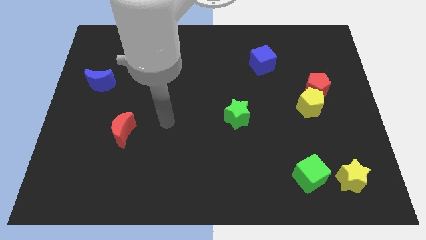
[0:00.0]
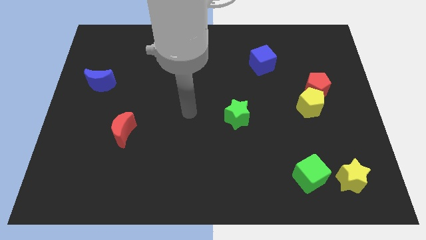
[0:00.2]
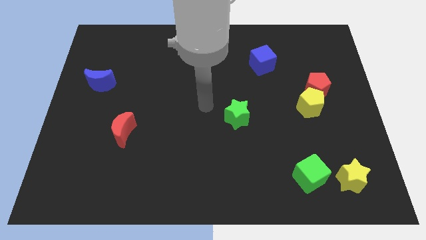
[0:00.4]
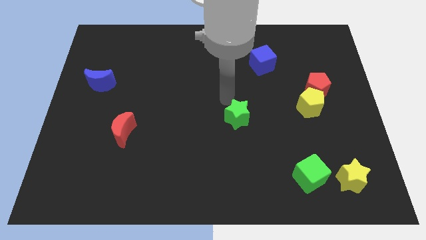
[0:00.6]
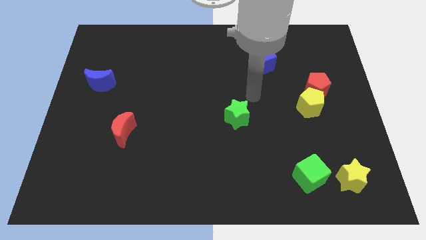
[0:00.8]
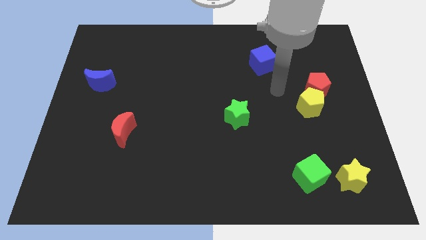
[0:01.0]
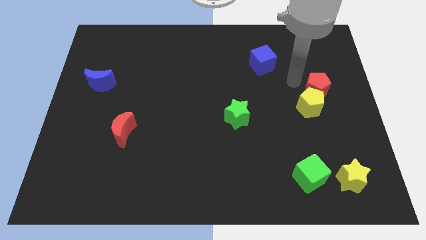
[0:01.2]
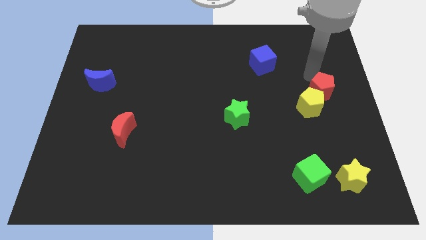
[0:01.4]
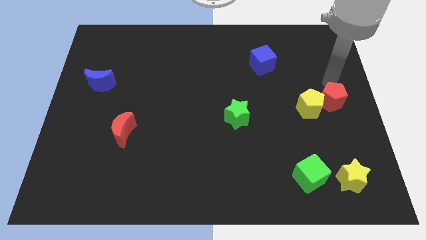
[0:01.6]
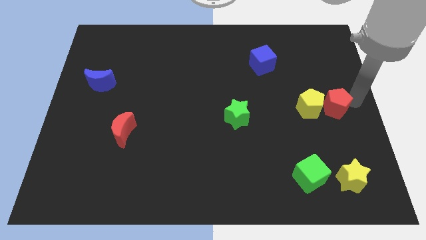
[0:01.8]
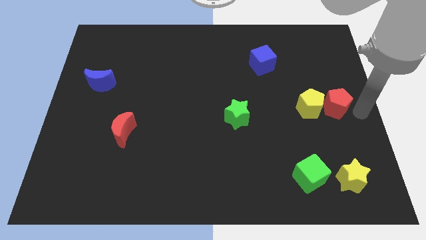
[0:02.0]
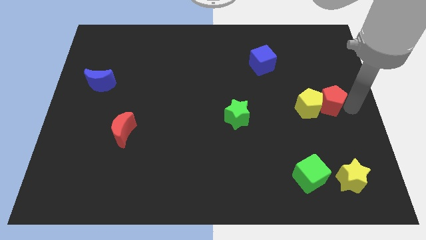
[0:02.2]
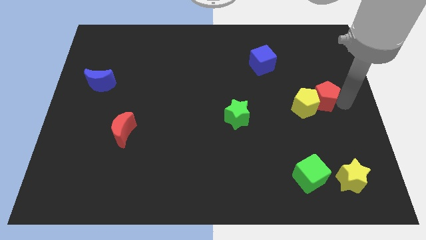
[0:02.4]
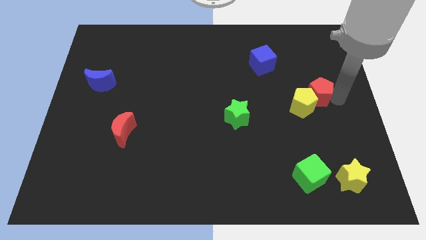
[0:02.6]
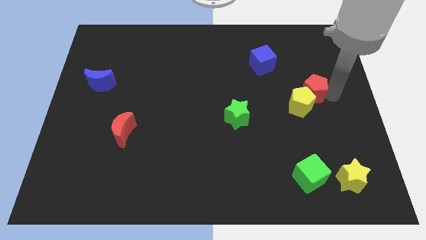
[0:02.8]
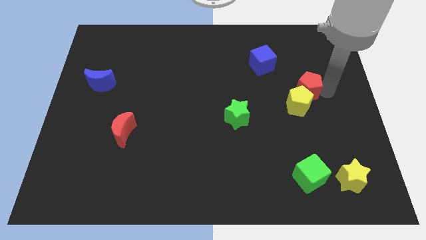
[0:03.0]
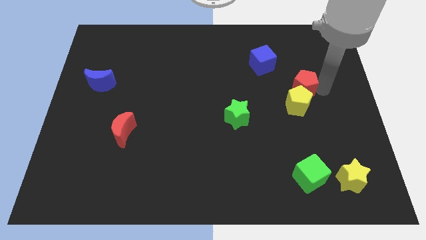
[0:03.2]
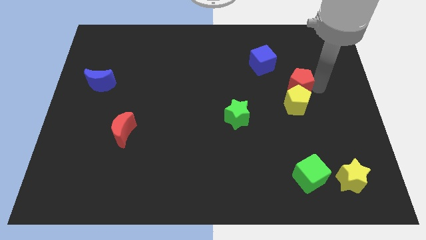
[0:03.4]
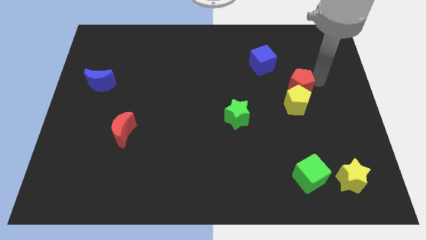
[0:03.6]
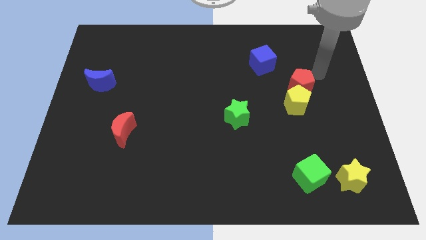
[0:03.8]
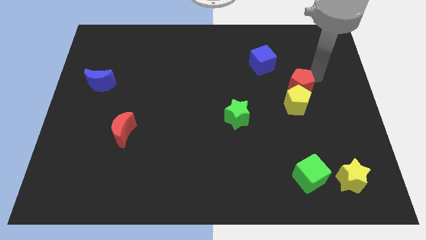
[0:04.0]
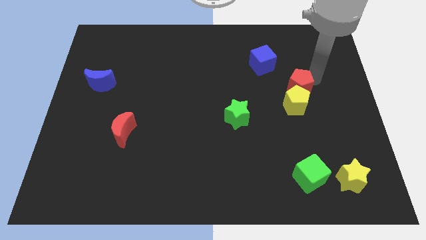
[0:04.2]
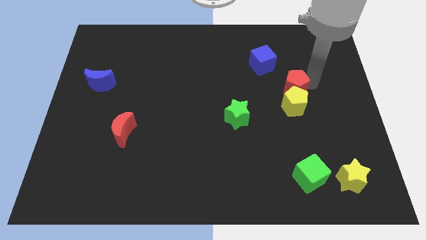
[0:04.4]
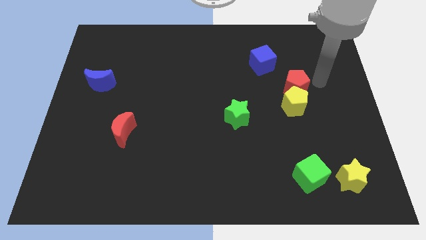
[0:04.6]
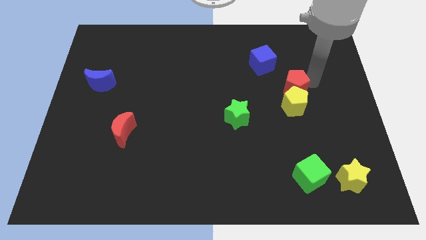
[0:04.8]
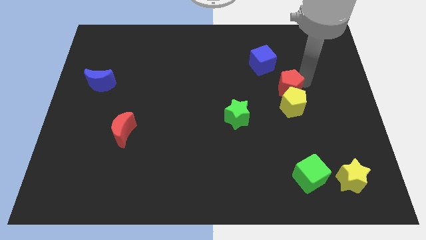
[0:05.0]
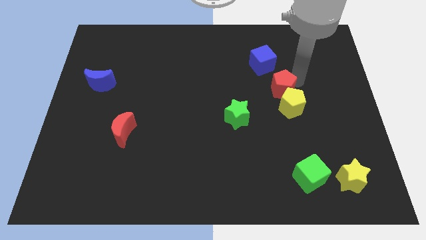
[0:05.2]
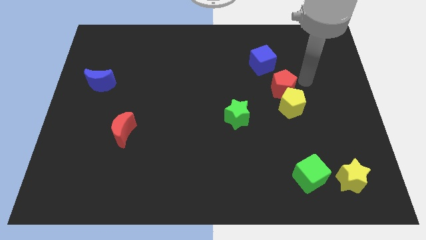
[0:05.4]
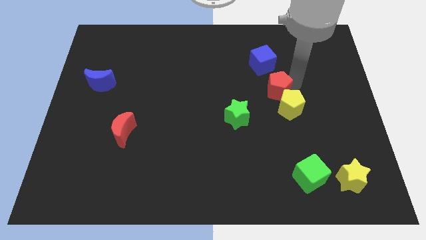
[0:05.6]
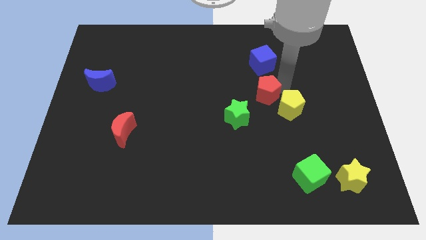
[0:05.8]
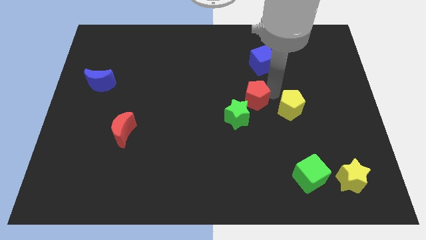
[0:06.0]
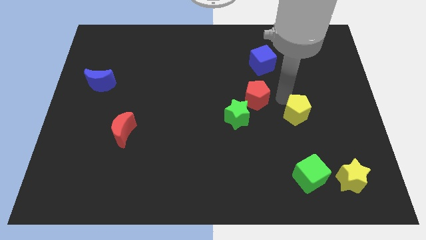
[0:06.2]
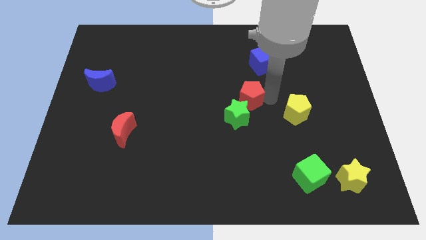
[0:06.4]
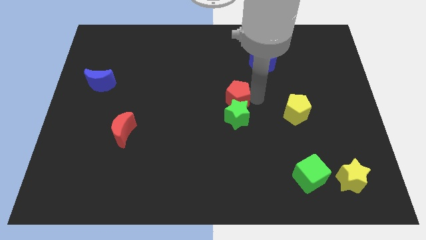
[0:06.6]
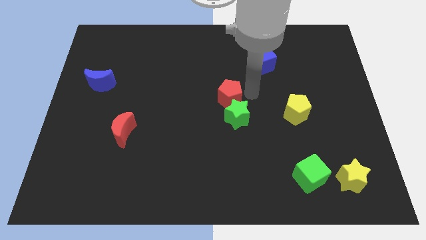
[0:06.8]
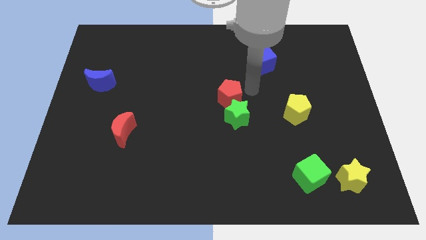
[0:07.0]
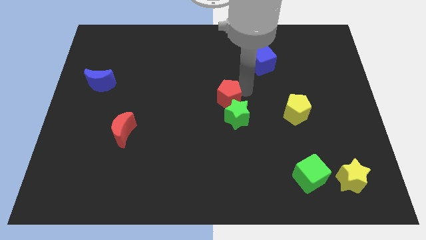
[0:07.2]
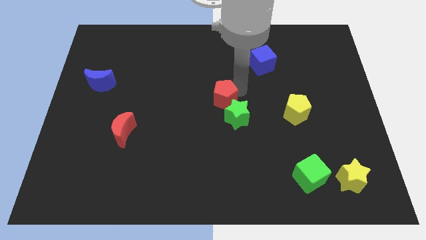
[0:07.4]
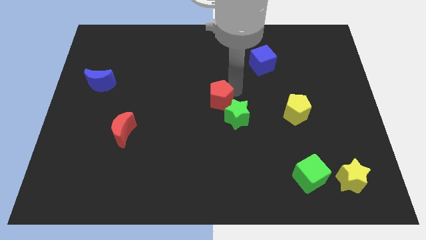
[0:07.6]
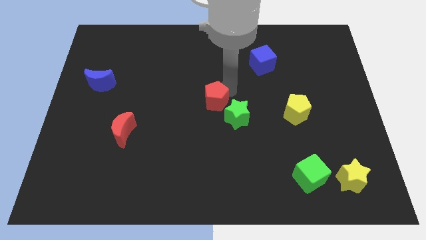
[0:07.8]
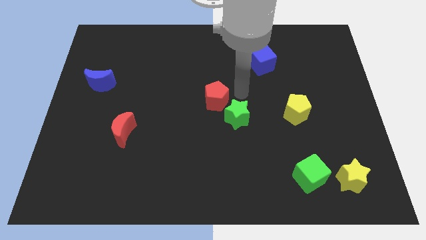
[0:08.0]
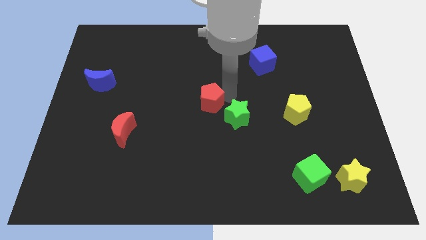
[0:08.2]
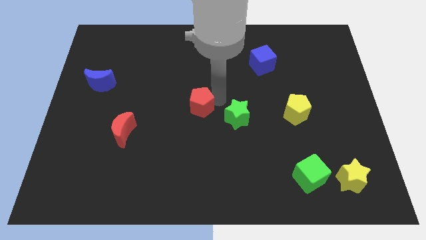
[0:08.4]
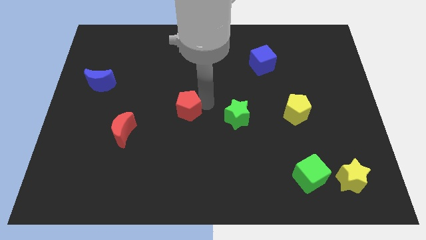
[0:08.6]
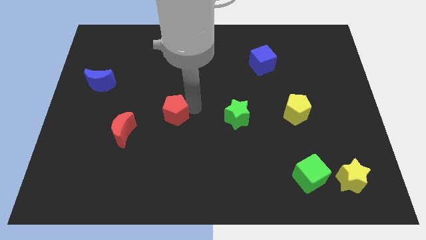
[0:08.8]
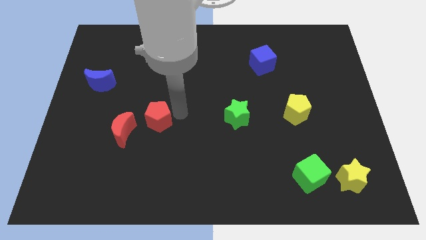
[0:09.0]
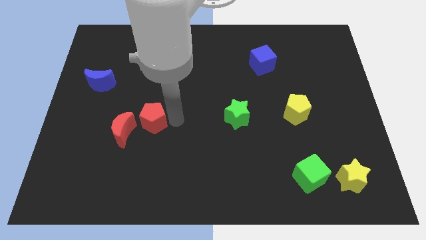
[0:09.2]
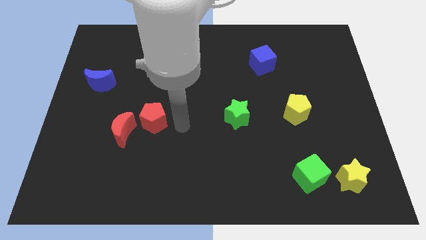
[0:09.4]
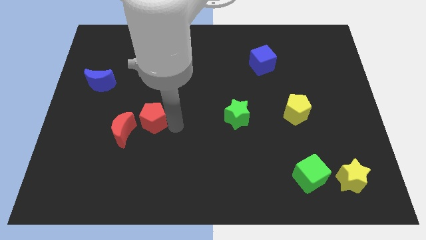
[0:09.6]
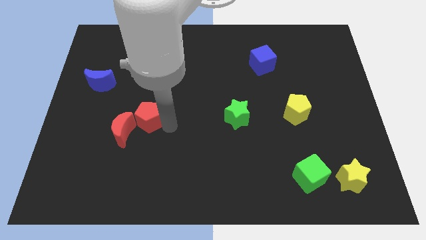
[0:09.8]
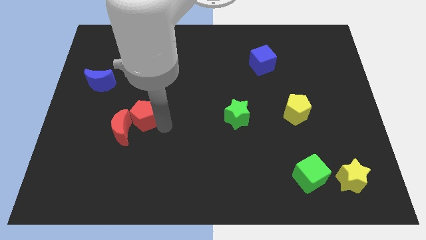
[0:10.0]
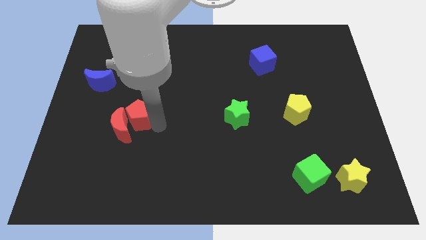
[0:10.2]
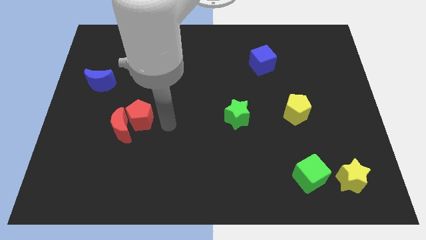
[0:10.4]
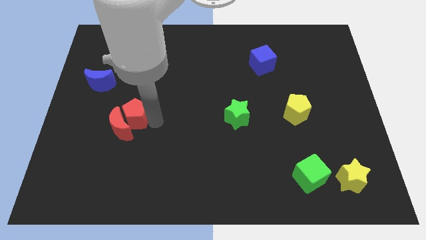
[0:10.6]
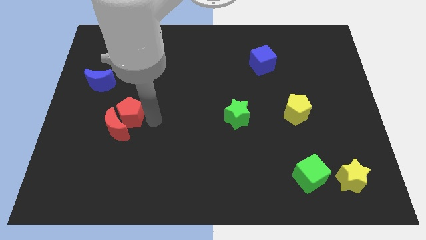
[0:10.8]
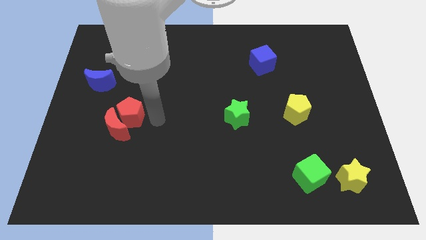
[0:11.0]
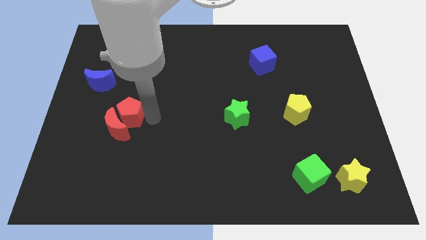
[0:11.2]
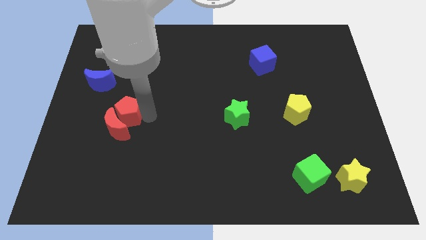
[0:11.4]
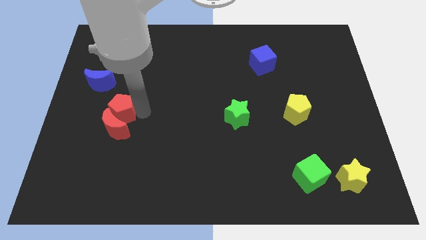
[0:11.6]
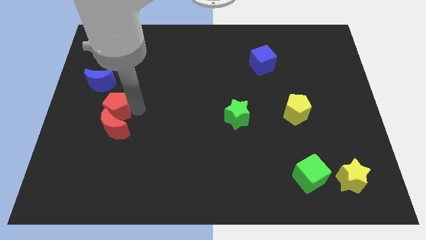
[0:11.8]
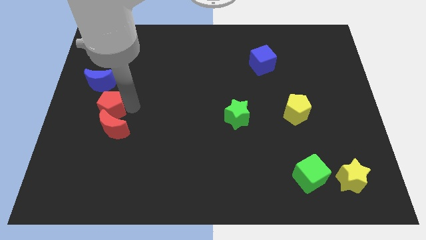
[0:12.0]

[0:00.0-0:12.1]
push the red pentagon to the bottom of the blue moon

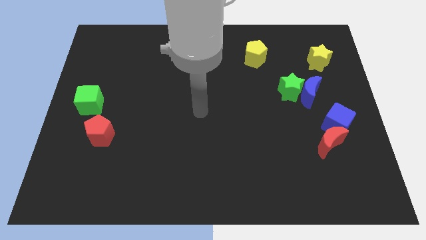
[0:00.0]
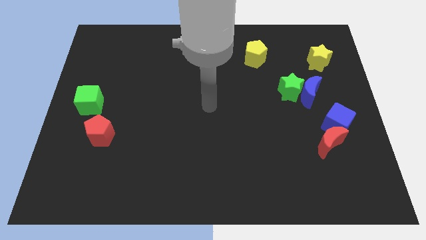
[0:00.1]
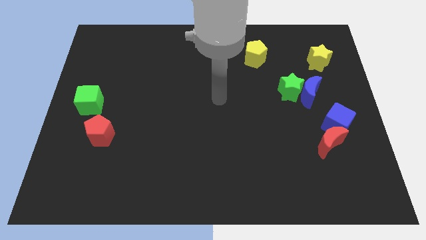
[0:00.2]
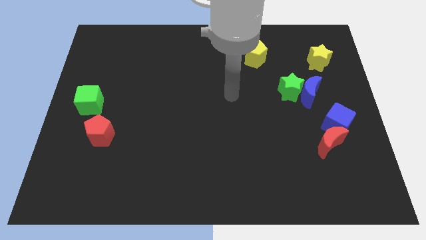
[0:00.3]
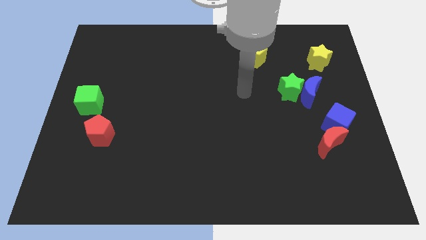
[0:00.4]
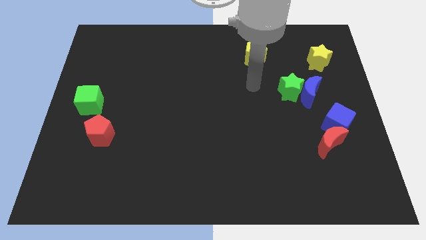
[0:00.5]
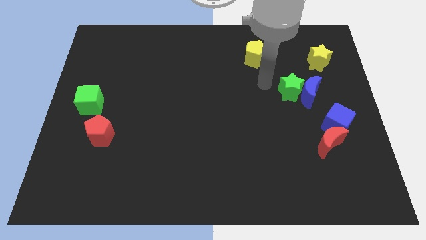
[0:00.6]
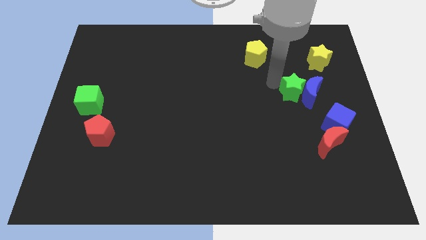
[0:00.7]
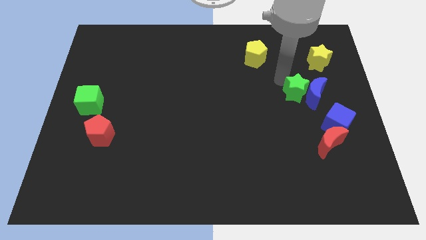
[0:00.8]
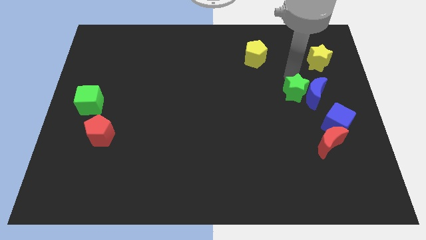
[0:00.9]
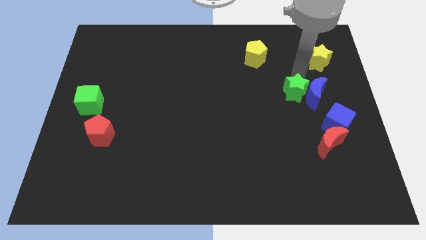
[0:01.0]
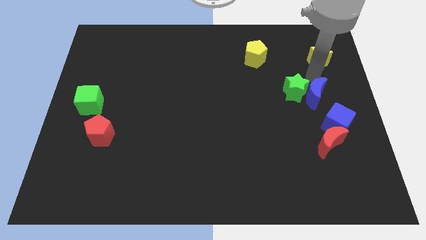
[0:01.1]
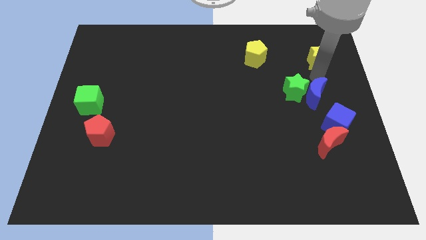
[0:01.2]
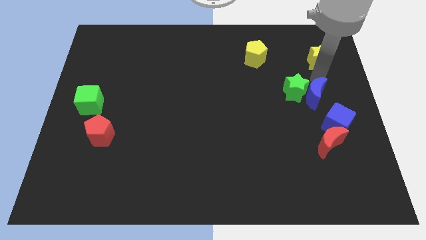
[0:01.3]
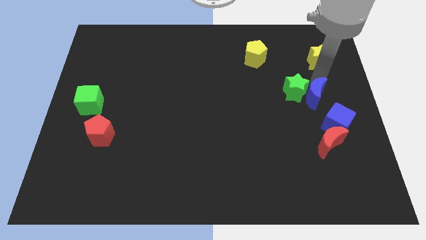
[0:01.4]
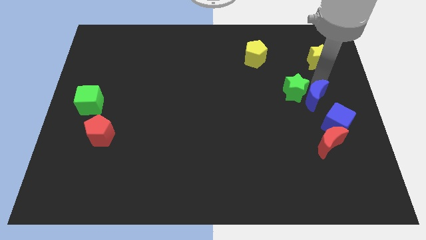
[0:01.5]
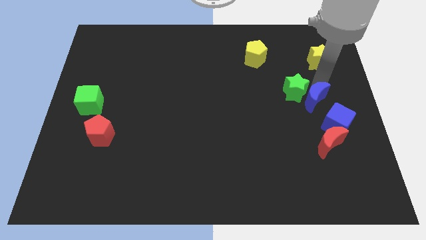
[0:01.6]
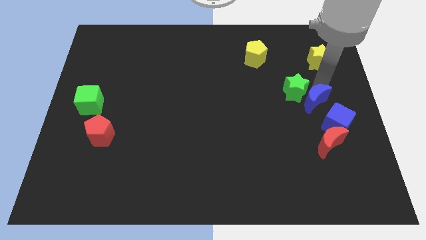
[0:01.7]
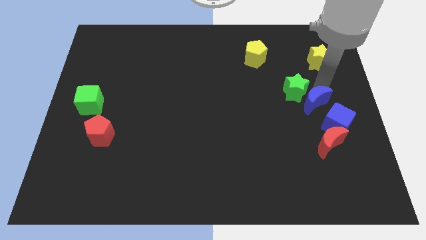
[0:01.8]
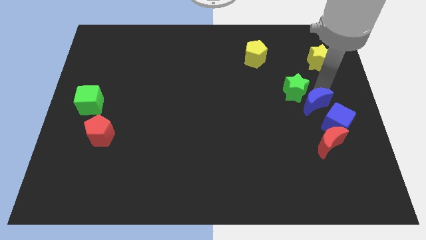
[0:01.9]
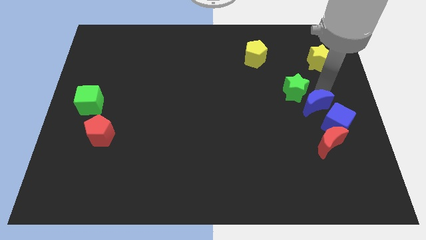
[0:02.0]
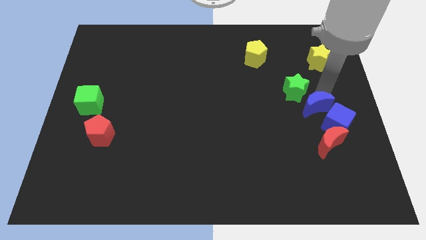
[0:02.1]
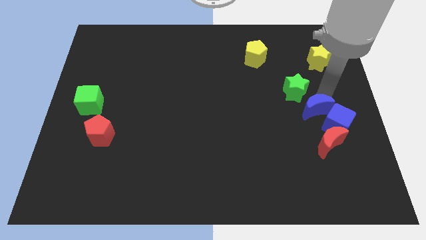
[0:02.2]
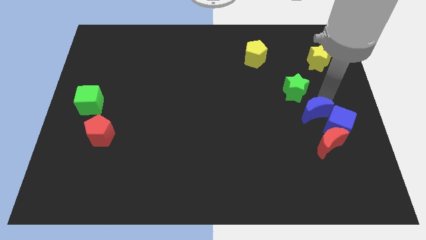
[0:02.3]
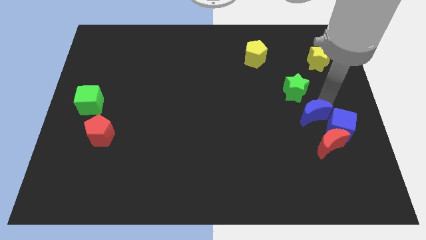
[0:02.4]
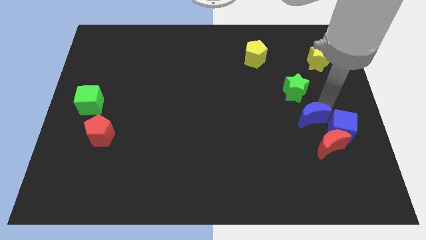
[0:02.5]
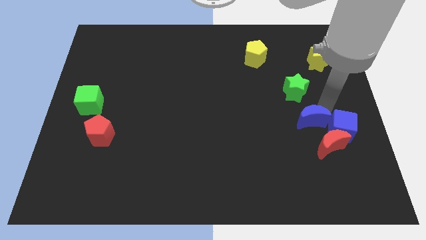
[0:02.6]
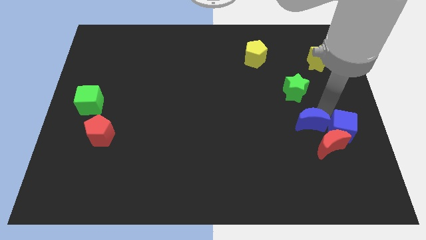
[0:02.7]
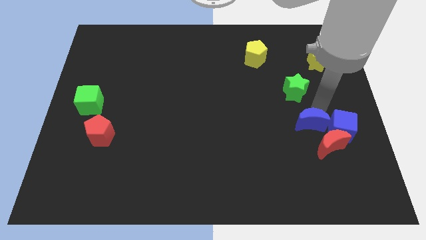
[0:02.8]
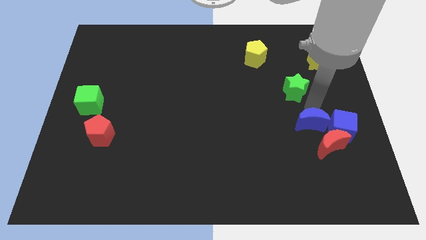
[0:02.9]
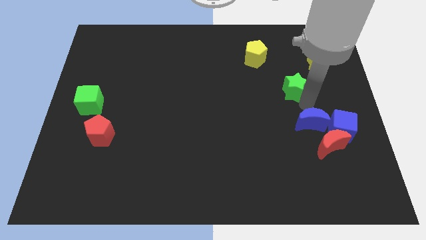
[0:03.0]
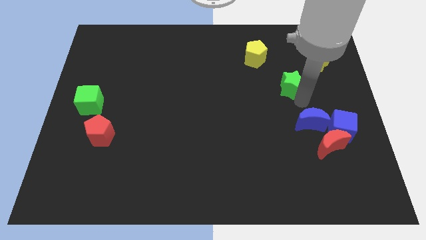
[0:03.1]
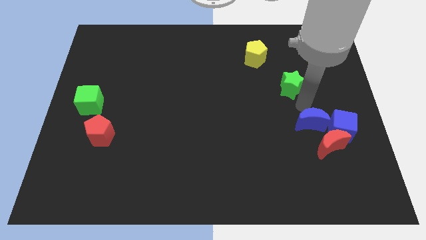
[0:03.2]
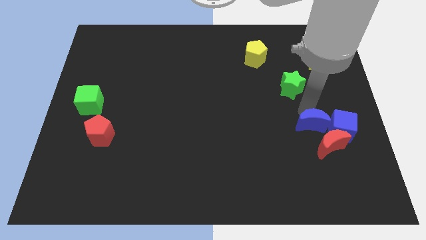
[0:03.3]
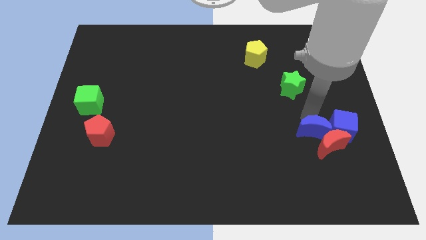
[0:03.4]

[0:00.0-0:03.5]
push the blue moon to the bottom left side of the blue cube
